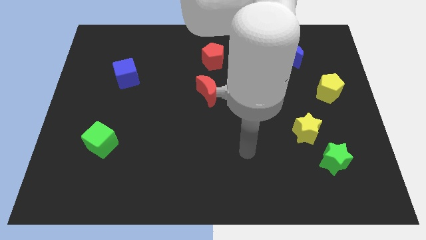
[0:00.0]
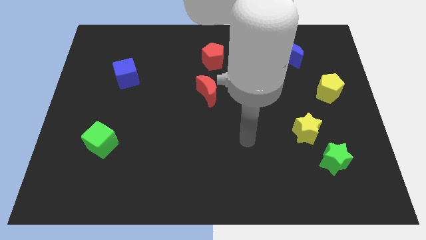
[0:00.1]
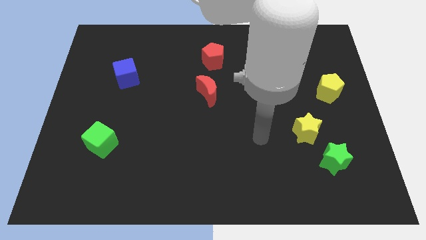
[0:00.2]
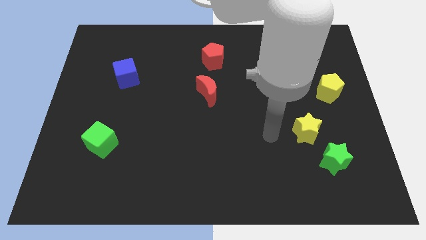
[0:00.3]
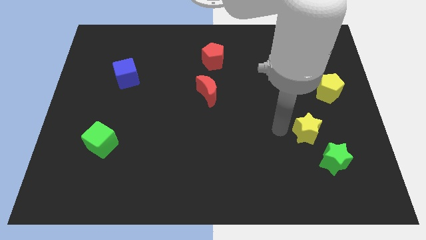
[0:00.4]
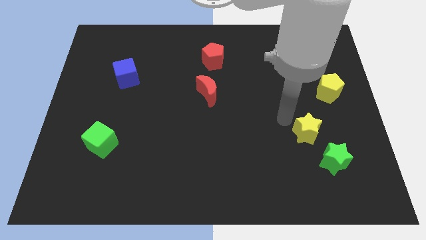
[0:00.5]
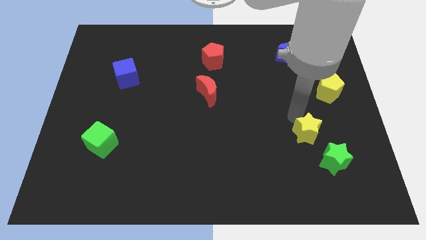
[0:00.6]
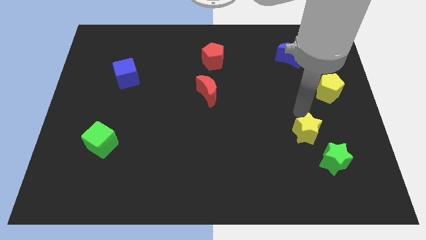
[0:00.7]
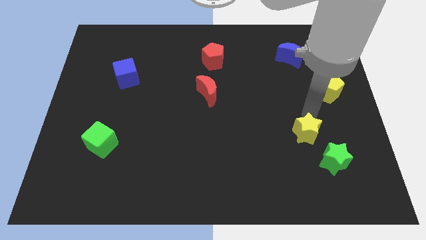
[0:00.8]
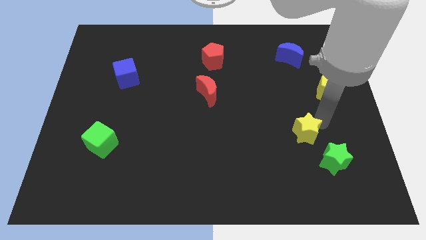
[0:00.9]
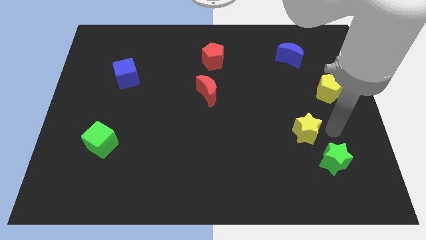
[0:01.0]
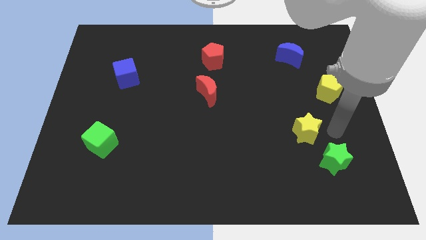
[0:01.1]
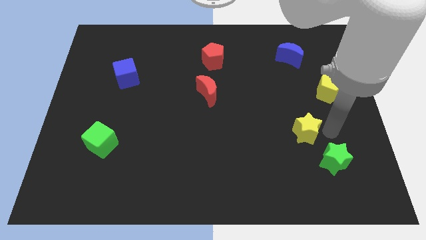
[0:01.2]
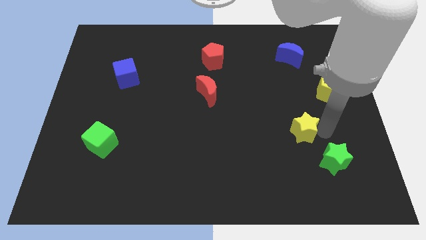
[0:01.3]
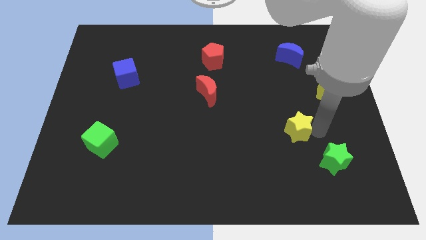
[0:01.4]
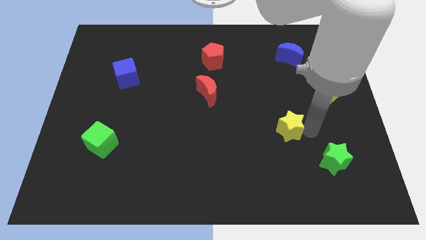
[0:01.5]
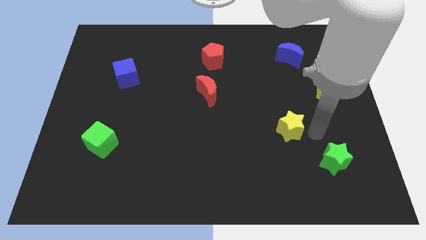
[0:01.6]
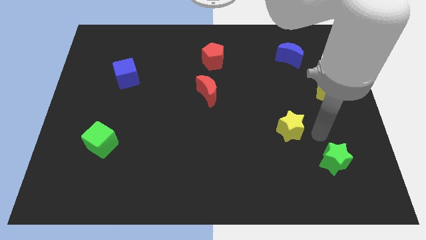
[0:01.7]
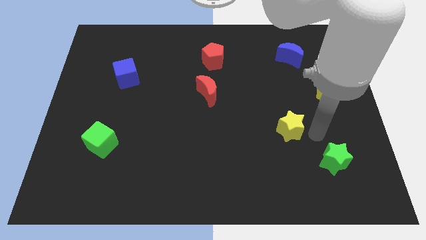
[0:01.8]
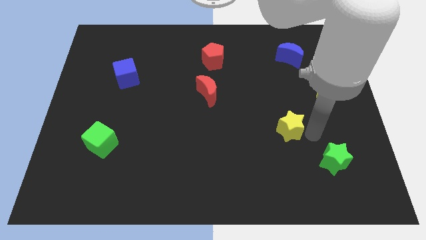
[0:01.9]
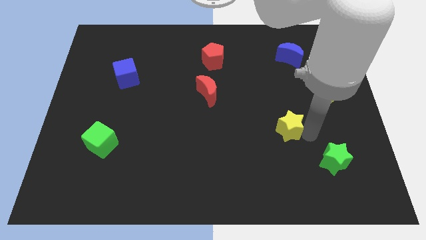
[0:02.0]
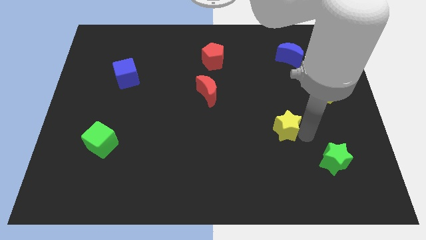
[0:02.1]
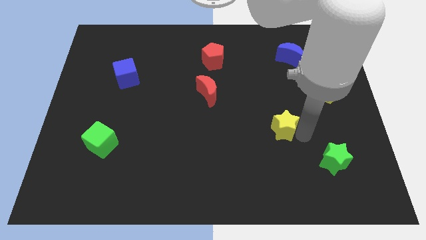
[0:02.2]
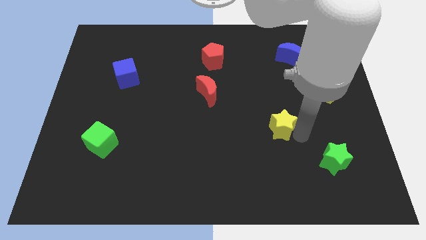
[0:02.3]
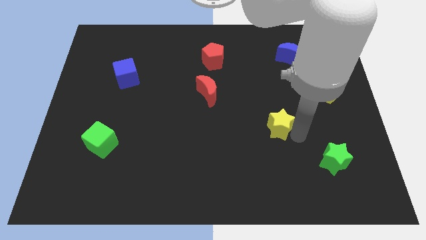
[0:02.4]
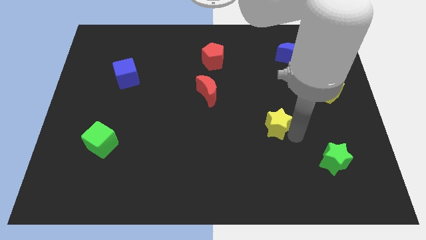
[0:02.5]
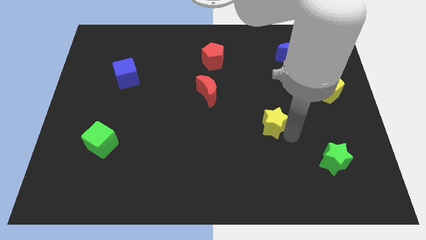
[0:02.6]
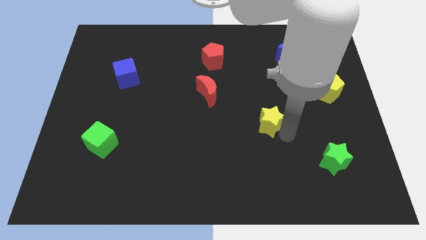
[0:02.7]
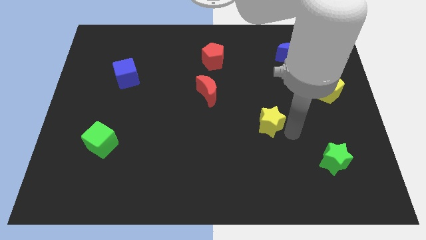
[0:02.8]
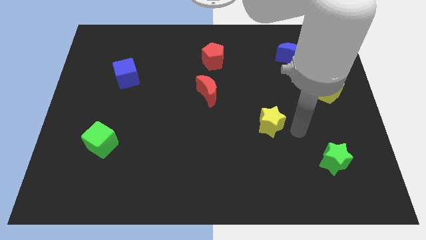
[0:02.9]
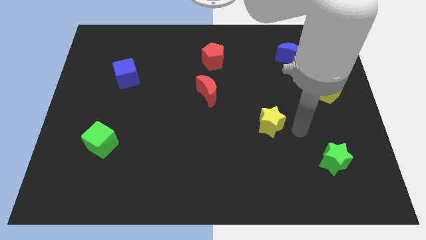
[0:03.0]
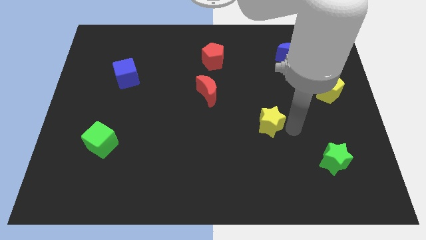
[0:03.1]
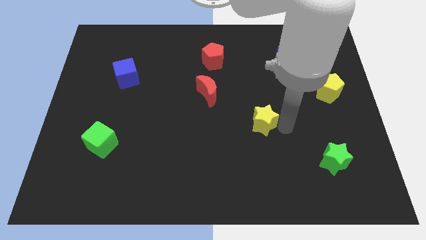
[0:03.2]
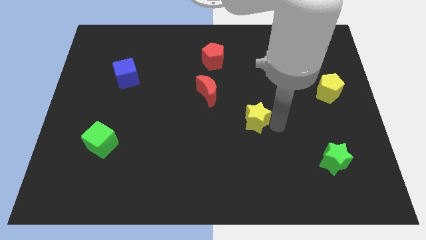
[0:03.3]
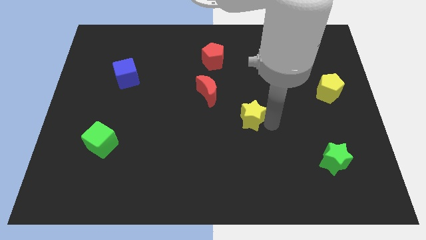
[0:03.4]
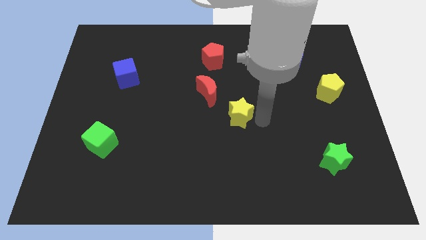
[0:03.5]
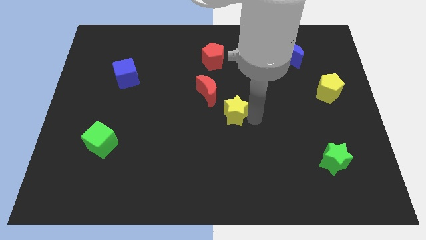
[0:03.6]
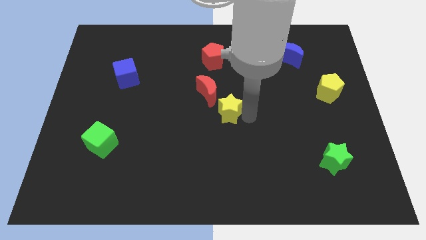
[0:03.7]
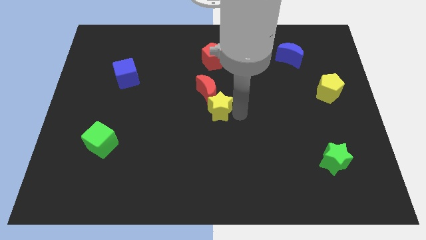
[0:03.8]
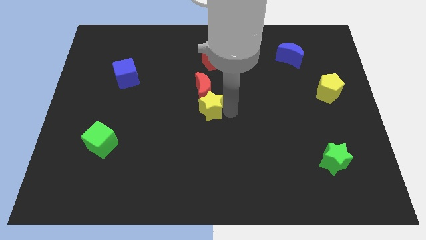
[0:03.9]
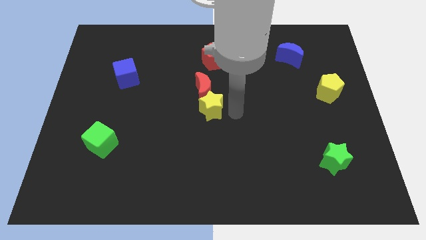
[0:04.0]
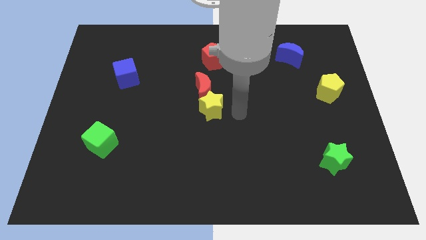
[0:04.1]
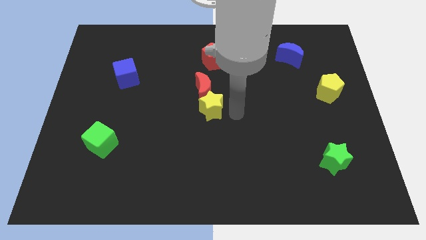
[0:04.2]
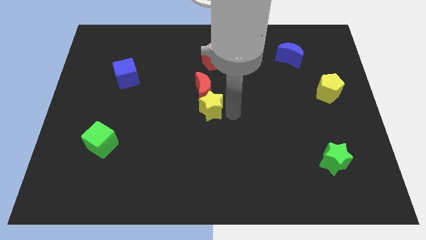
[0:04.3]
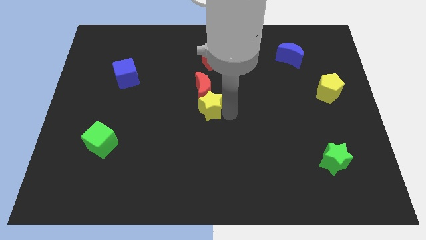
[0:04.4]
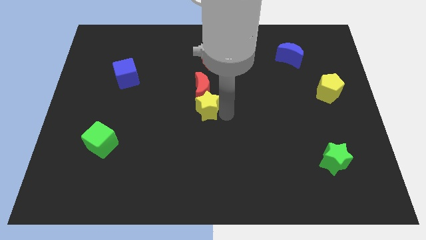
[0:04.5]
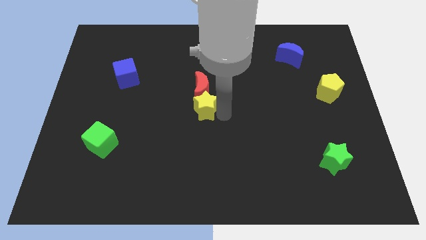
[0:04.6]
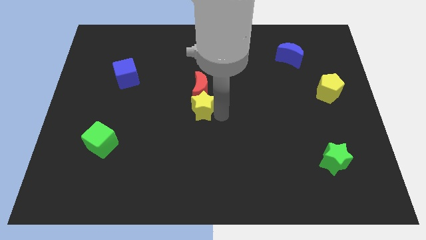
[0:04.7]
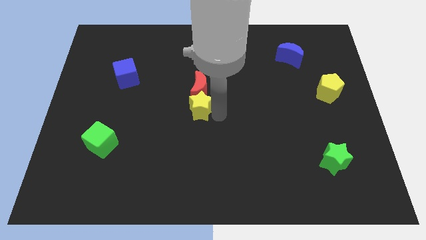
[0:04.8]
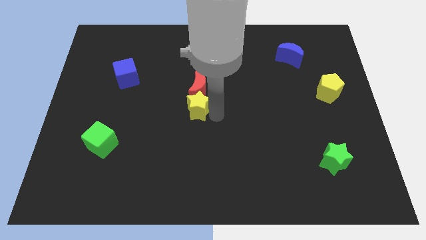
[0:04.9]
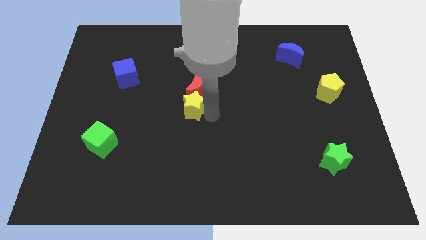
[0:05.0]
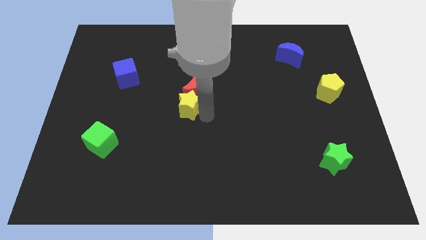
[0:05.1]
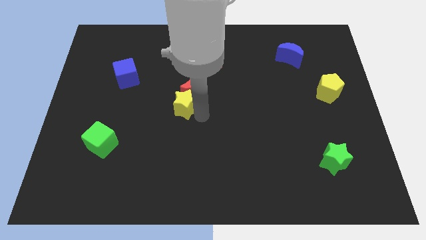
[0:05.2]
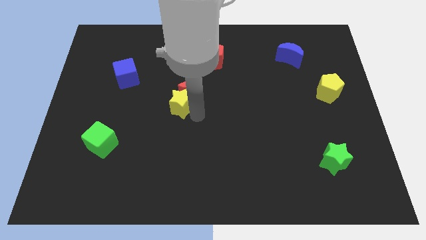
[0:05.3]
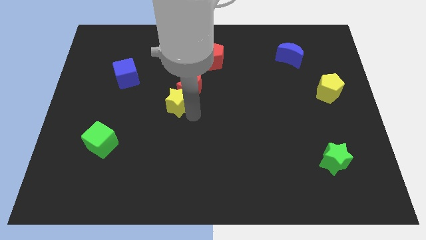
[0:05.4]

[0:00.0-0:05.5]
push the yellow star to the left of the red moon

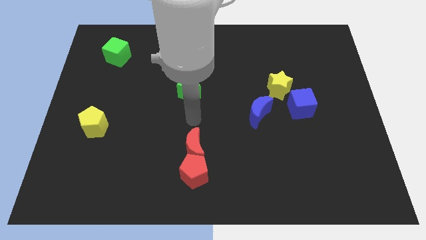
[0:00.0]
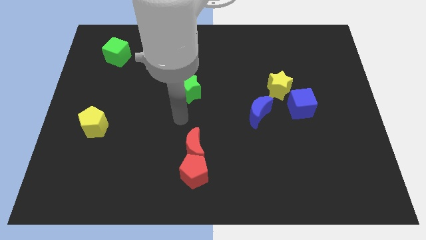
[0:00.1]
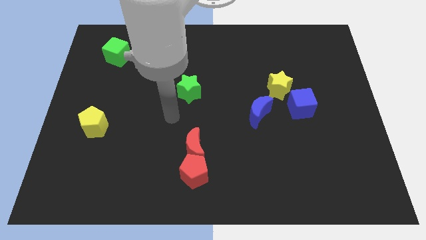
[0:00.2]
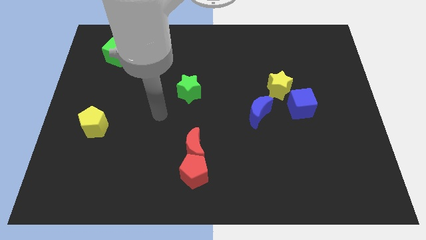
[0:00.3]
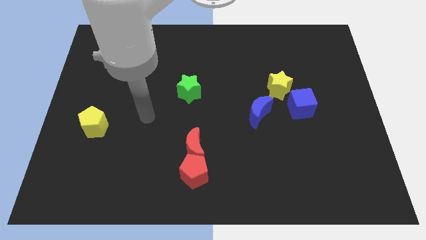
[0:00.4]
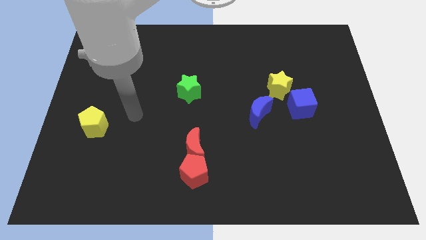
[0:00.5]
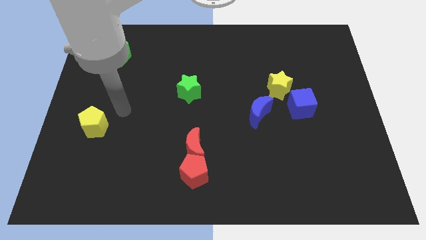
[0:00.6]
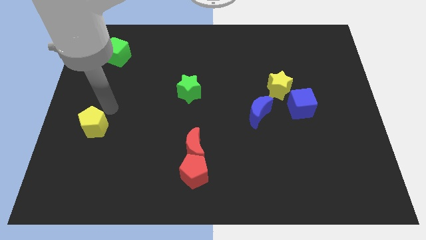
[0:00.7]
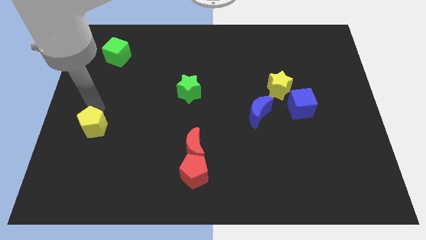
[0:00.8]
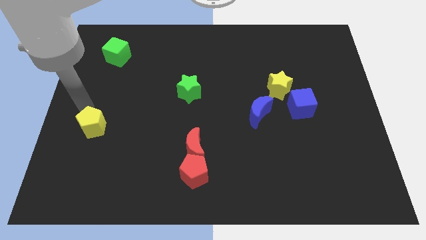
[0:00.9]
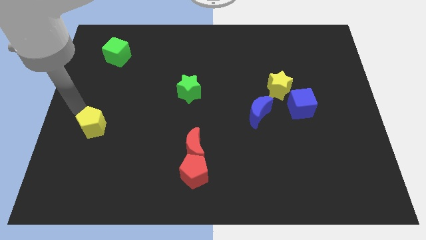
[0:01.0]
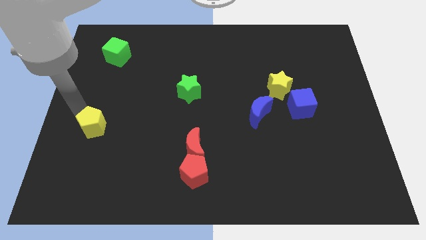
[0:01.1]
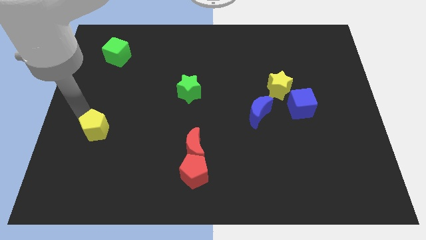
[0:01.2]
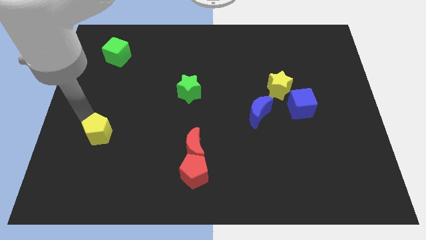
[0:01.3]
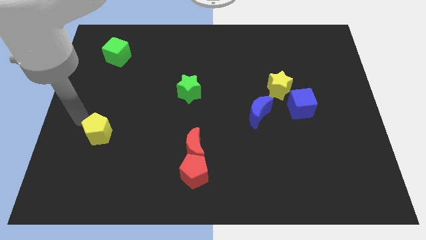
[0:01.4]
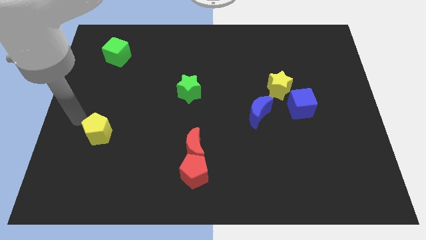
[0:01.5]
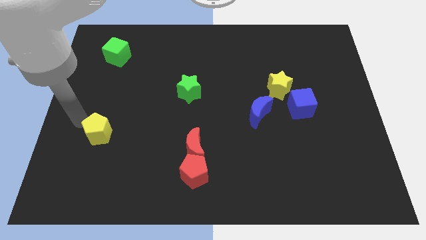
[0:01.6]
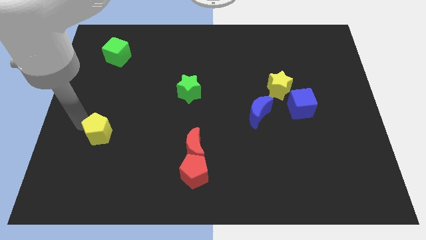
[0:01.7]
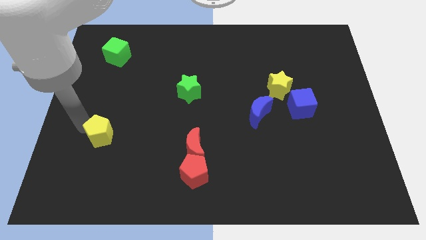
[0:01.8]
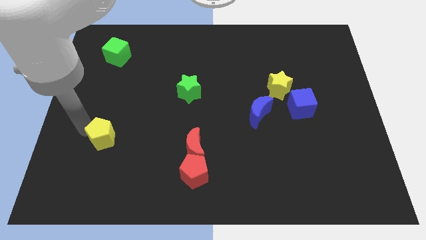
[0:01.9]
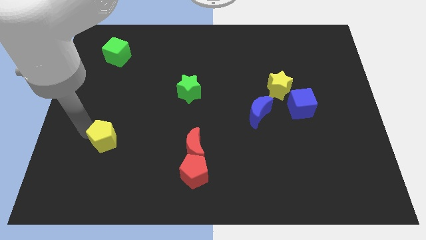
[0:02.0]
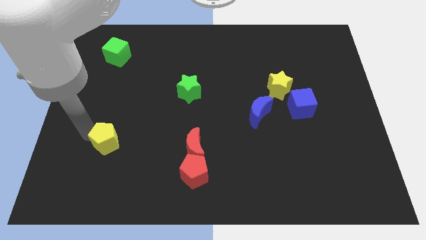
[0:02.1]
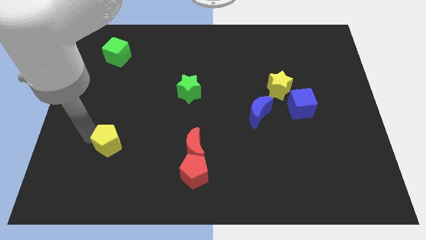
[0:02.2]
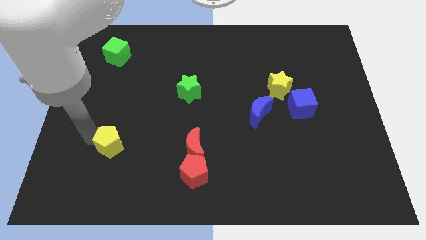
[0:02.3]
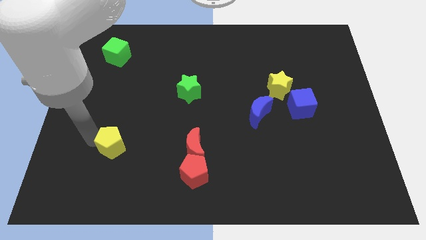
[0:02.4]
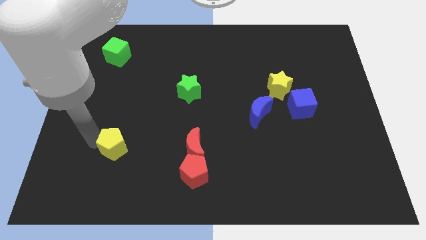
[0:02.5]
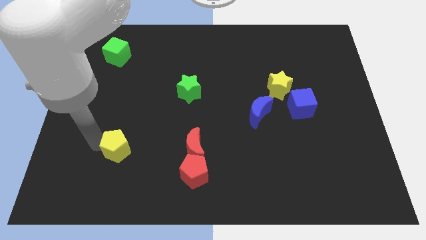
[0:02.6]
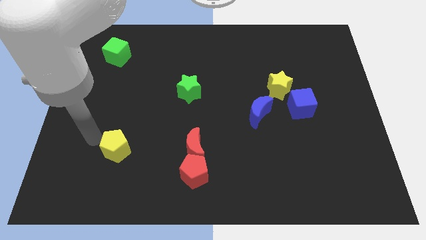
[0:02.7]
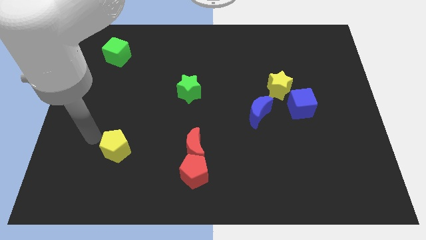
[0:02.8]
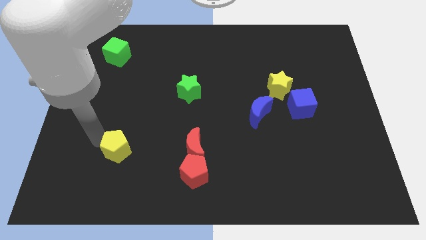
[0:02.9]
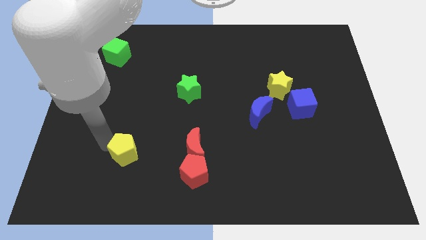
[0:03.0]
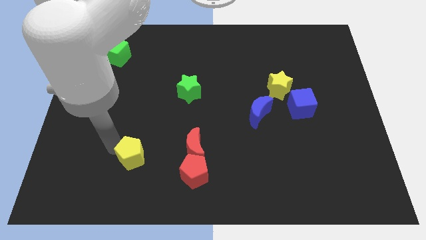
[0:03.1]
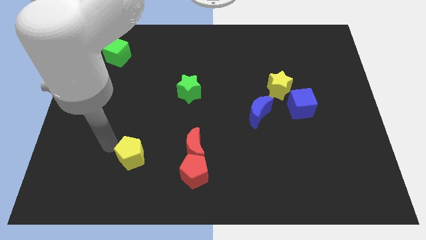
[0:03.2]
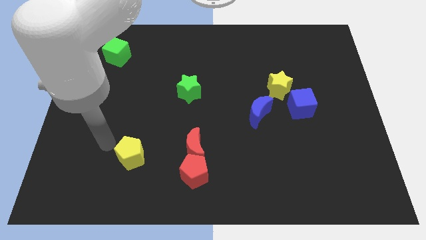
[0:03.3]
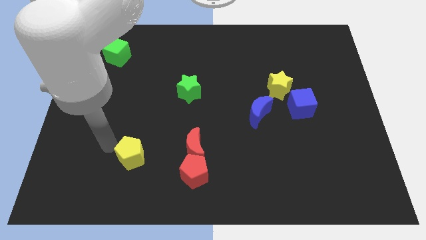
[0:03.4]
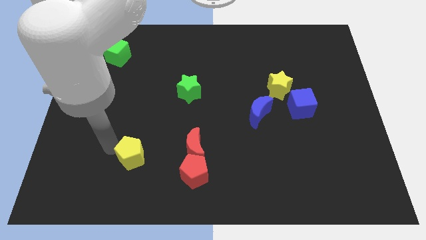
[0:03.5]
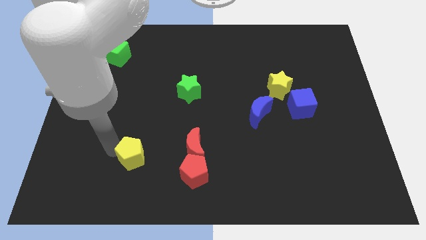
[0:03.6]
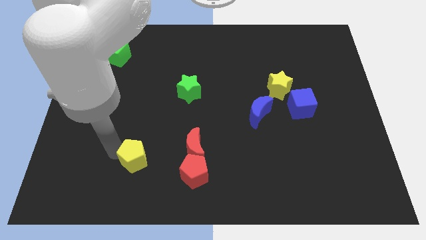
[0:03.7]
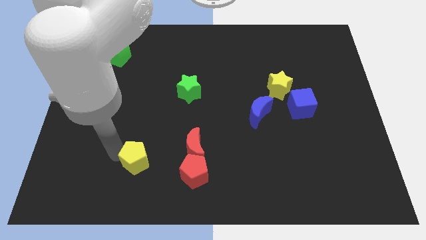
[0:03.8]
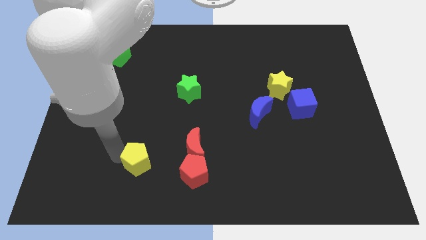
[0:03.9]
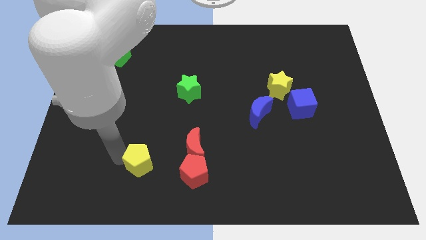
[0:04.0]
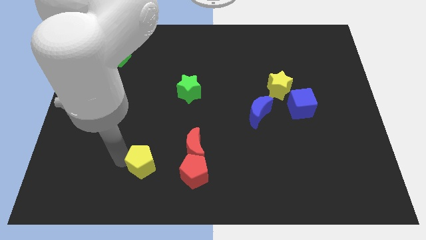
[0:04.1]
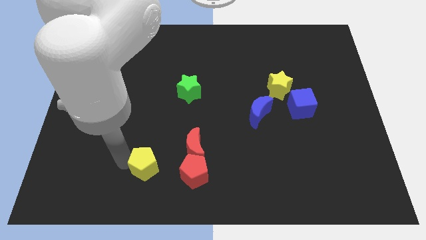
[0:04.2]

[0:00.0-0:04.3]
move the yellow pentagon to the bottom left side of the red moon
